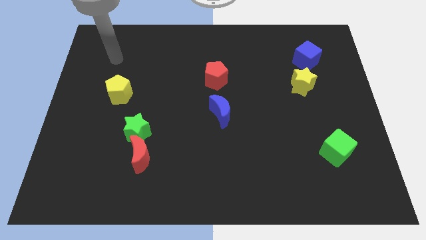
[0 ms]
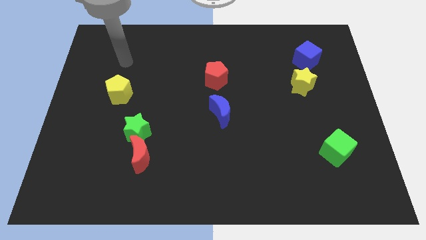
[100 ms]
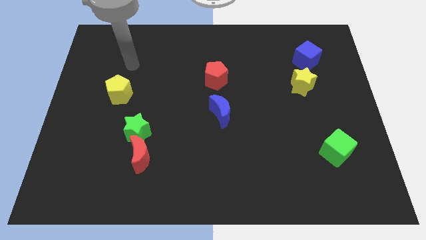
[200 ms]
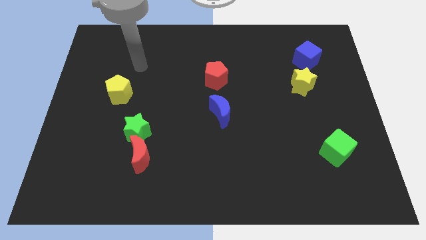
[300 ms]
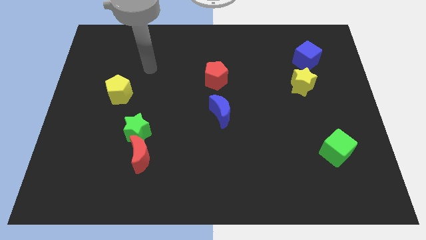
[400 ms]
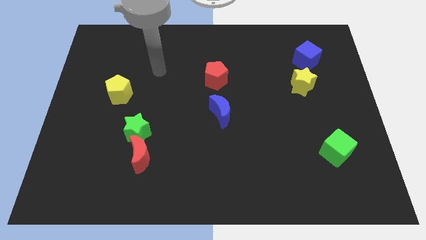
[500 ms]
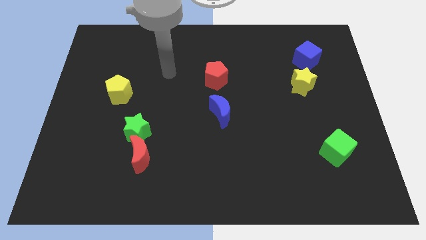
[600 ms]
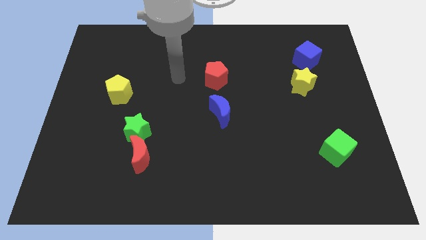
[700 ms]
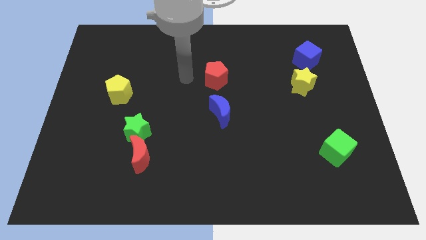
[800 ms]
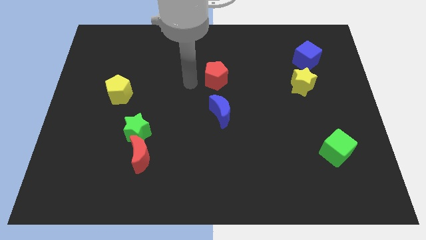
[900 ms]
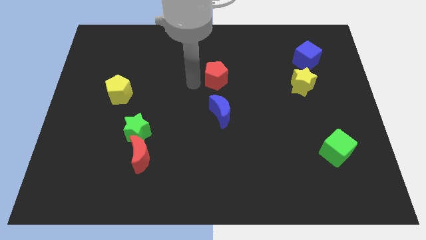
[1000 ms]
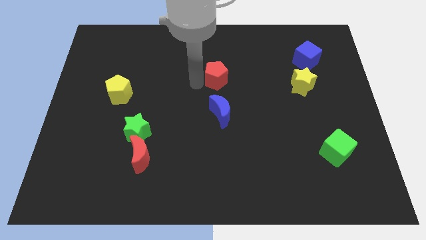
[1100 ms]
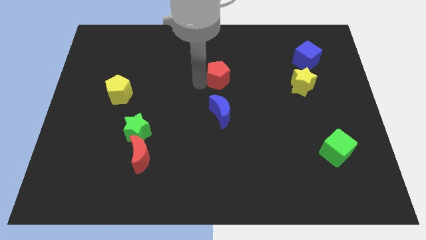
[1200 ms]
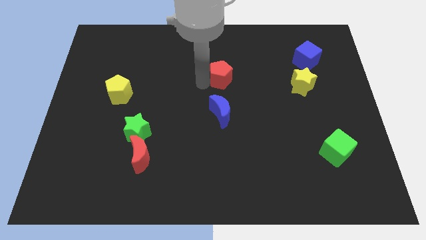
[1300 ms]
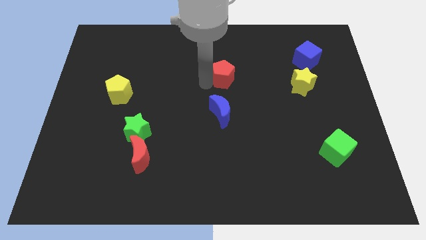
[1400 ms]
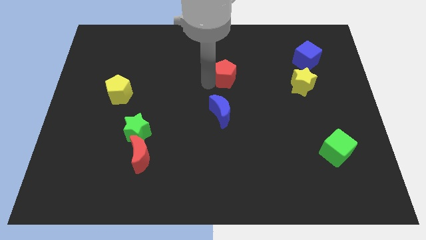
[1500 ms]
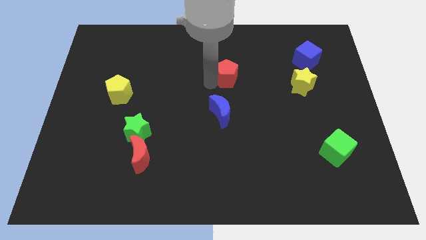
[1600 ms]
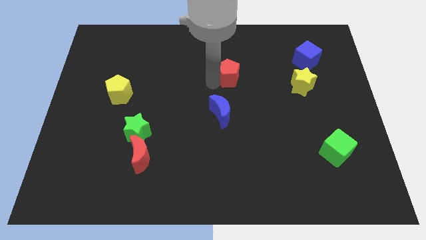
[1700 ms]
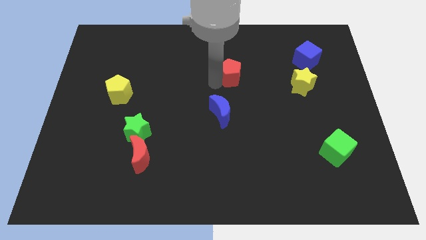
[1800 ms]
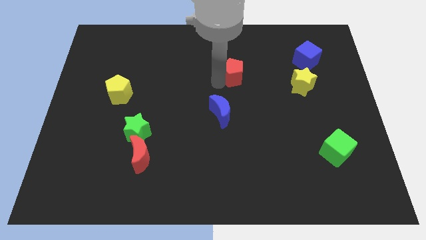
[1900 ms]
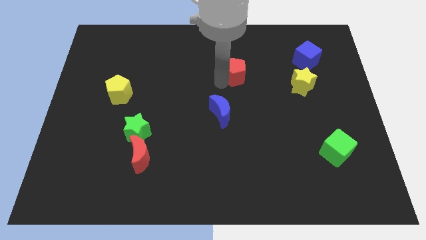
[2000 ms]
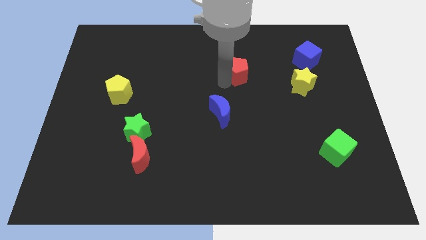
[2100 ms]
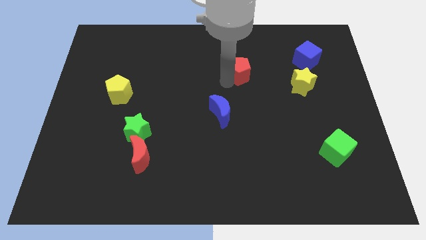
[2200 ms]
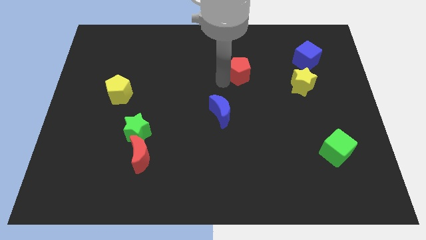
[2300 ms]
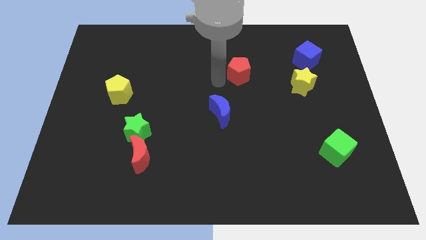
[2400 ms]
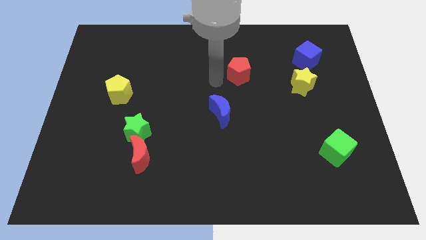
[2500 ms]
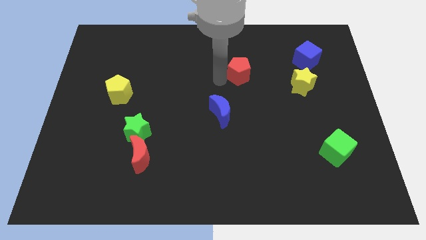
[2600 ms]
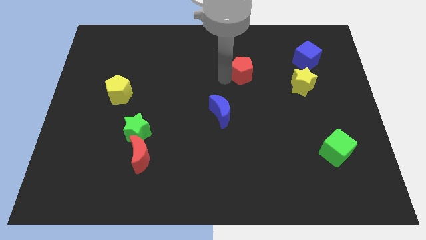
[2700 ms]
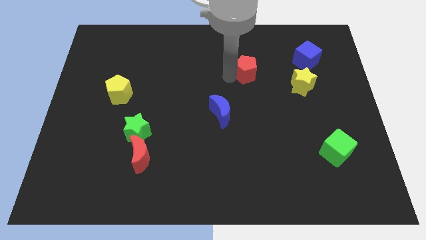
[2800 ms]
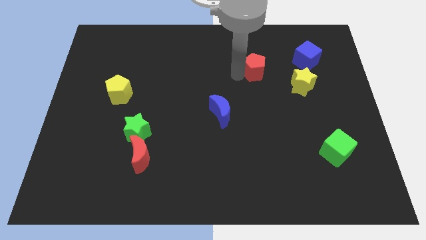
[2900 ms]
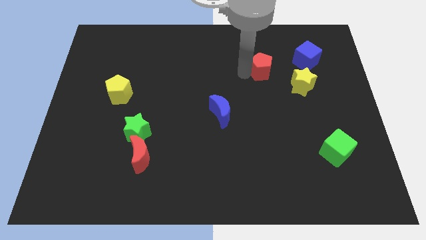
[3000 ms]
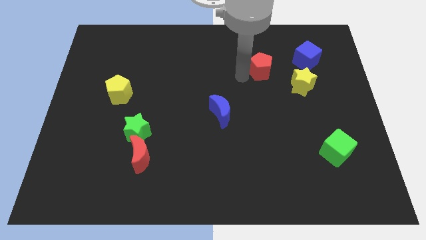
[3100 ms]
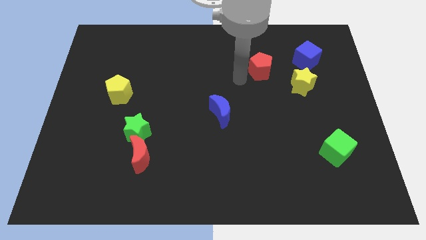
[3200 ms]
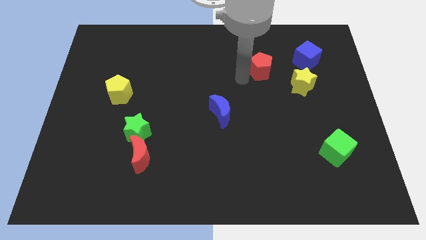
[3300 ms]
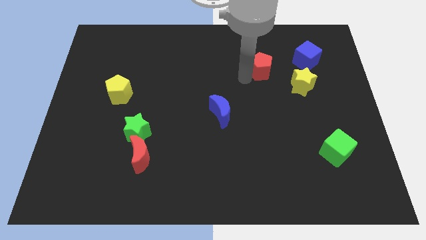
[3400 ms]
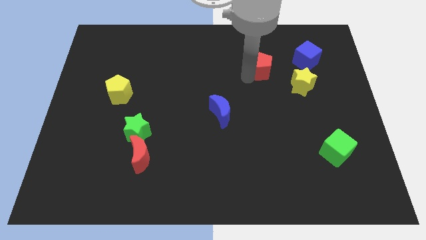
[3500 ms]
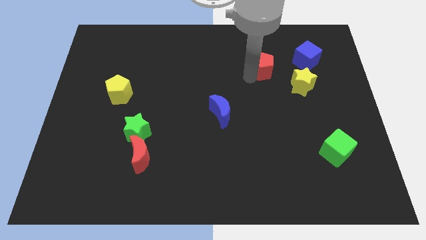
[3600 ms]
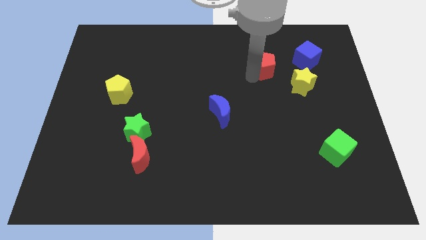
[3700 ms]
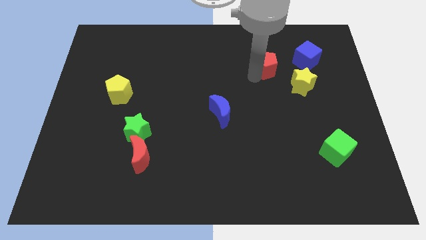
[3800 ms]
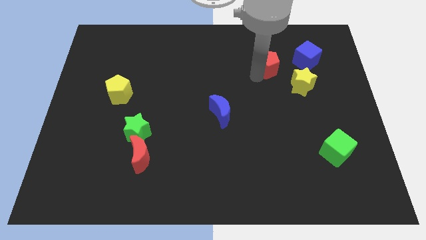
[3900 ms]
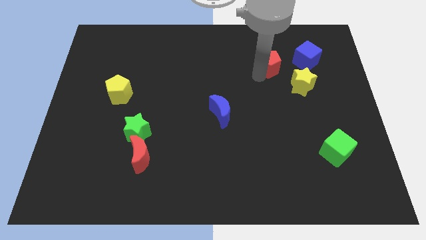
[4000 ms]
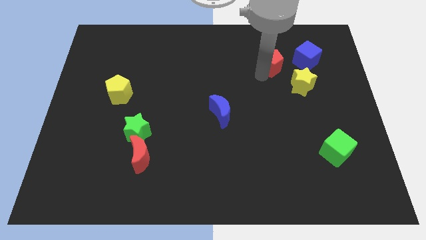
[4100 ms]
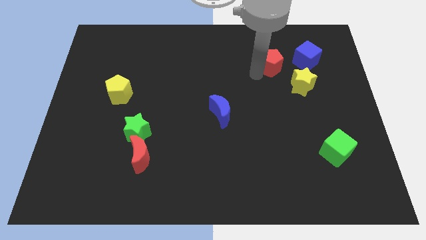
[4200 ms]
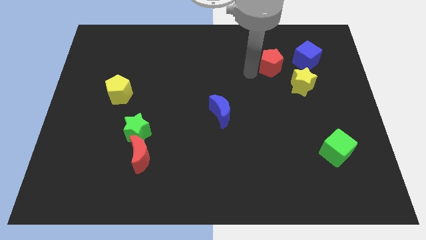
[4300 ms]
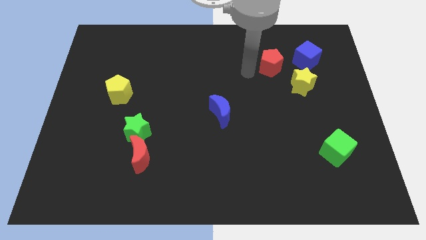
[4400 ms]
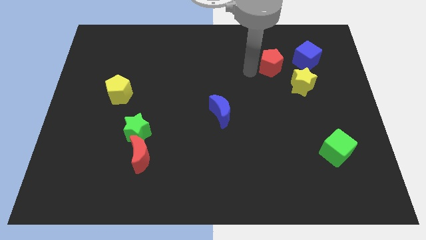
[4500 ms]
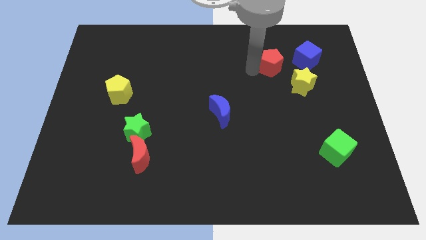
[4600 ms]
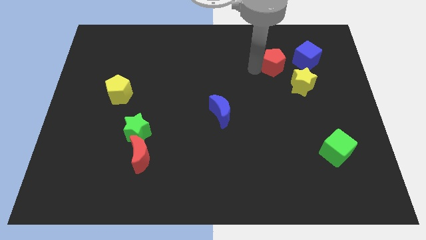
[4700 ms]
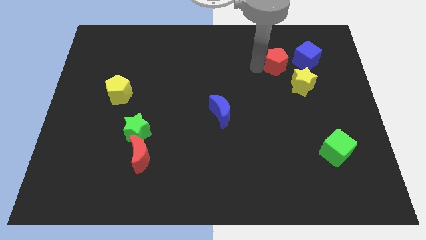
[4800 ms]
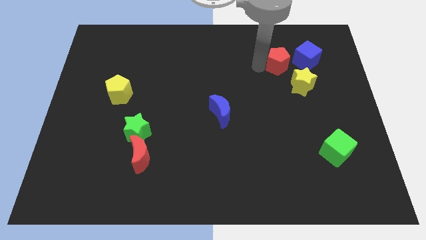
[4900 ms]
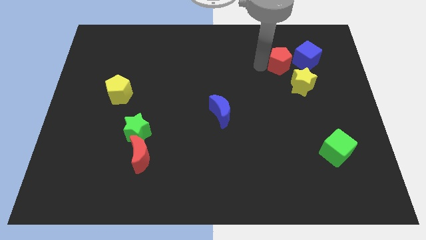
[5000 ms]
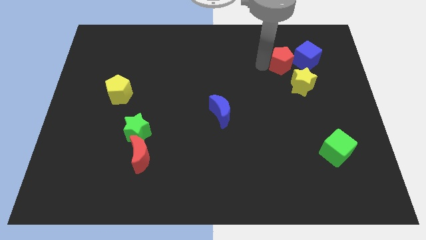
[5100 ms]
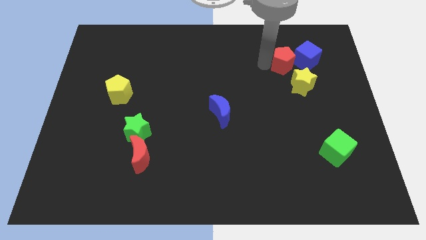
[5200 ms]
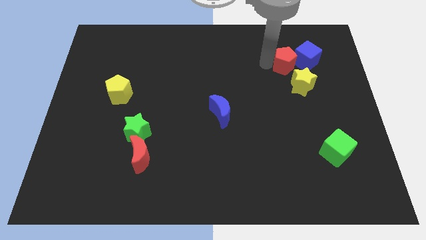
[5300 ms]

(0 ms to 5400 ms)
put the red pentagon to the blue cube
